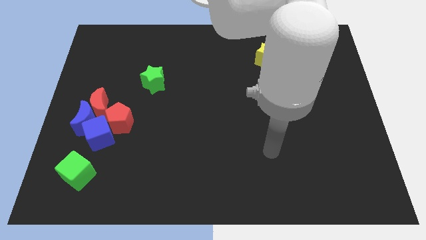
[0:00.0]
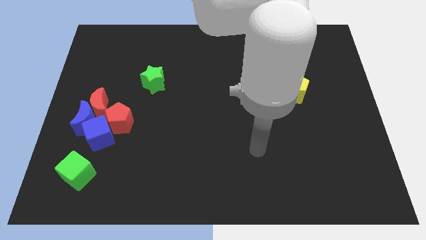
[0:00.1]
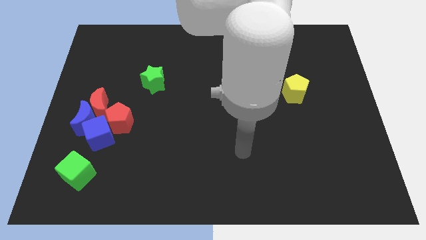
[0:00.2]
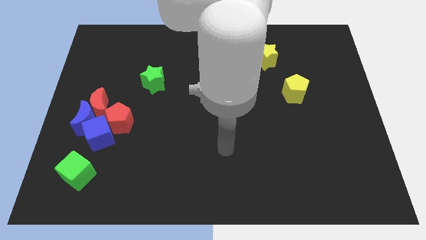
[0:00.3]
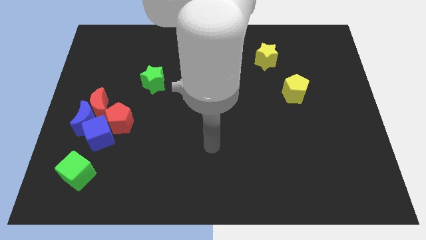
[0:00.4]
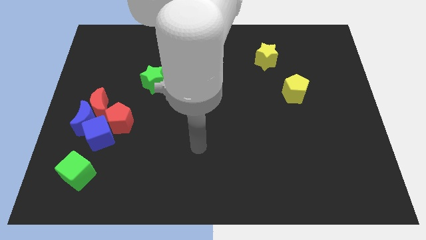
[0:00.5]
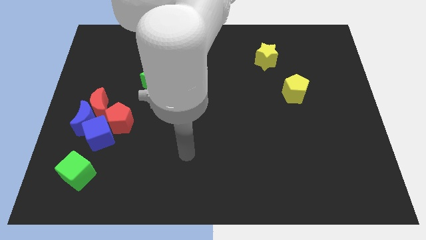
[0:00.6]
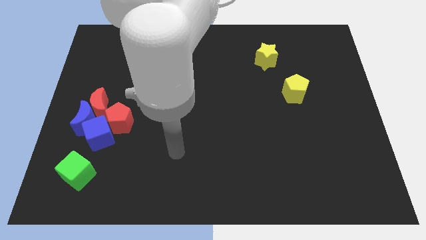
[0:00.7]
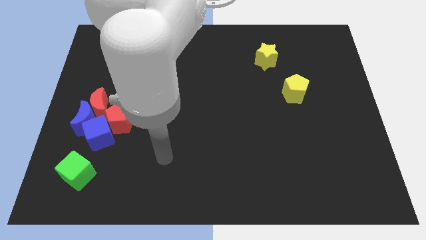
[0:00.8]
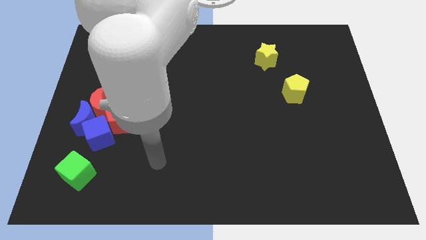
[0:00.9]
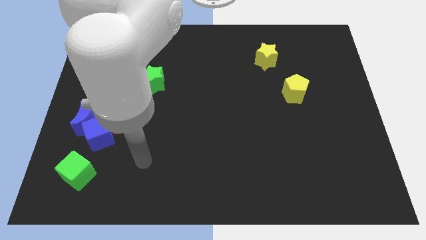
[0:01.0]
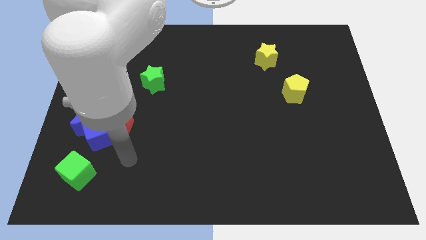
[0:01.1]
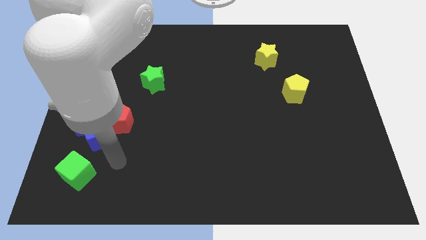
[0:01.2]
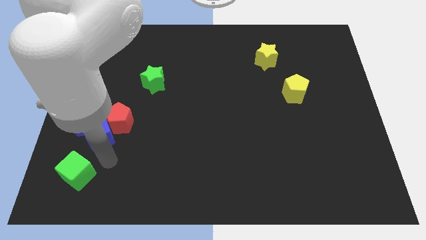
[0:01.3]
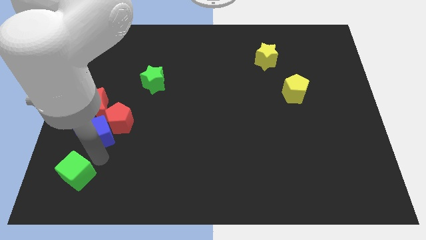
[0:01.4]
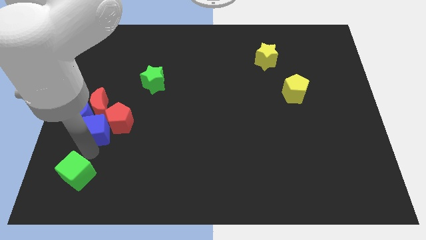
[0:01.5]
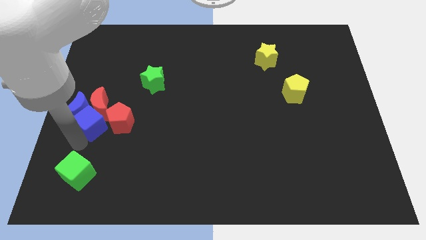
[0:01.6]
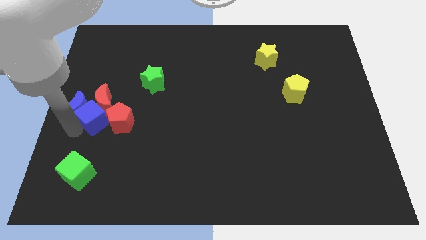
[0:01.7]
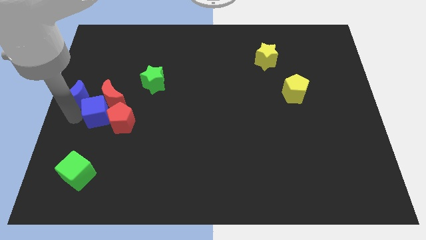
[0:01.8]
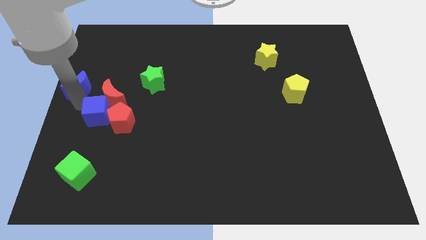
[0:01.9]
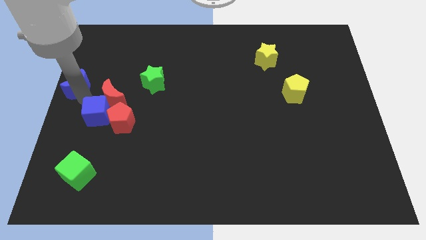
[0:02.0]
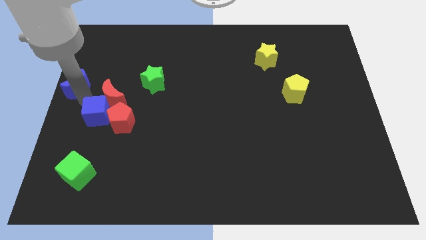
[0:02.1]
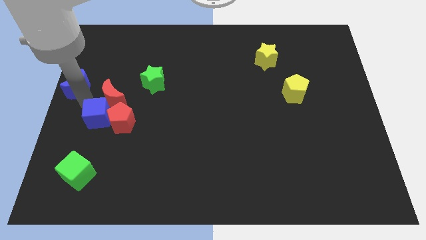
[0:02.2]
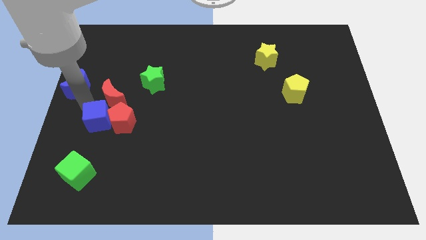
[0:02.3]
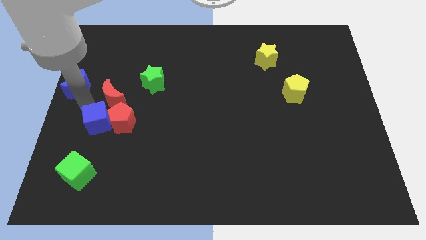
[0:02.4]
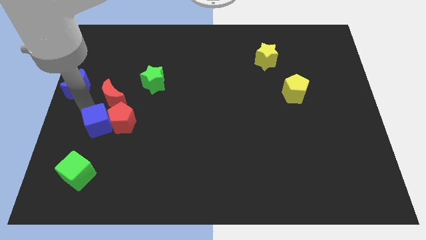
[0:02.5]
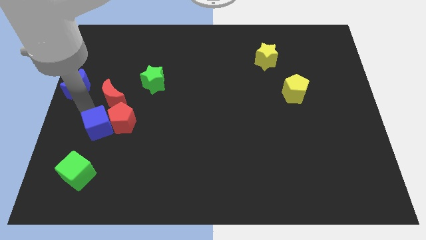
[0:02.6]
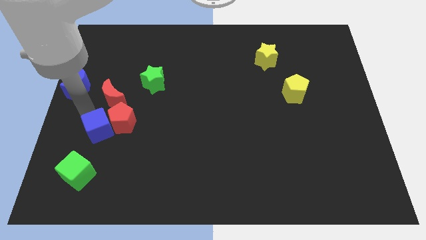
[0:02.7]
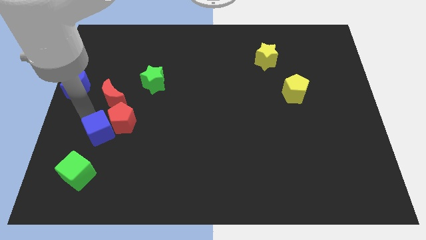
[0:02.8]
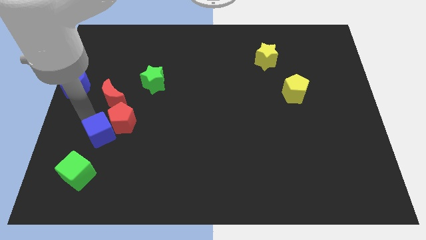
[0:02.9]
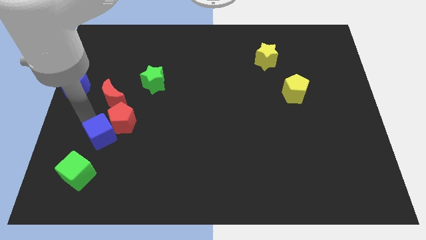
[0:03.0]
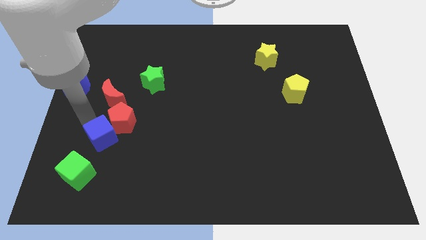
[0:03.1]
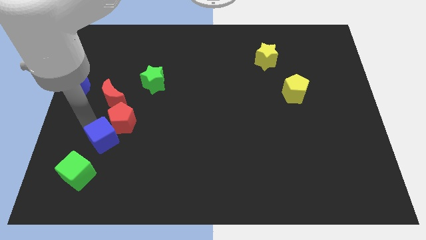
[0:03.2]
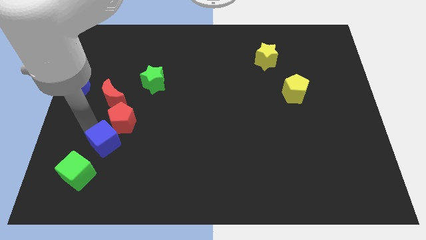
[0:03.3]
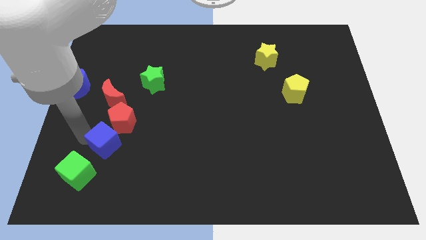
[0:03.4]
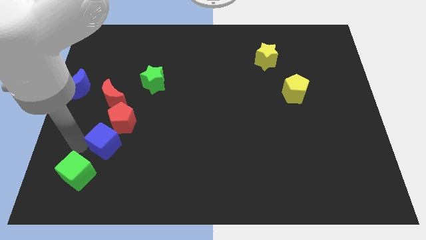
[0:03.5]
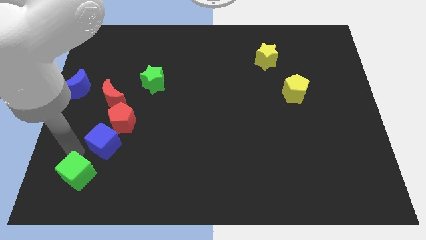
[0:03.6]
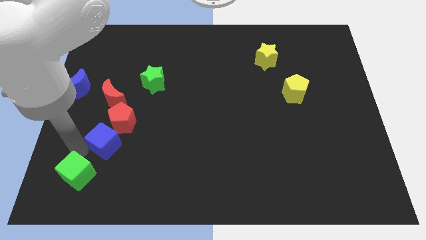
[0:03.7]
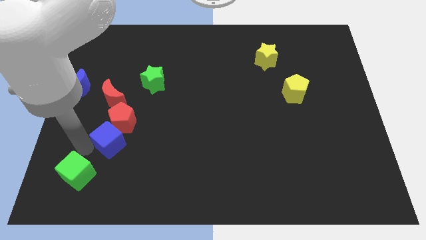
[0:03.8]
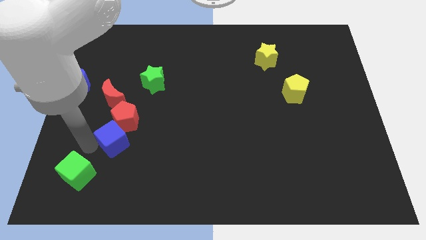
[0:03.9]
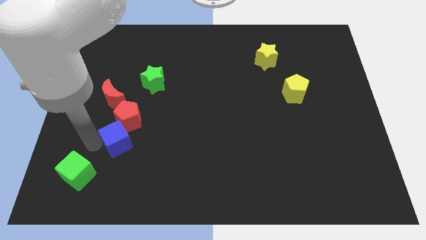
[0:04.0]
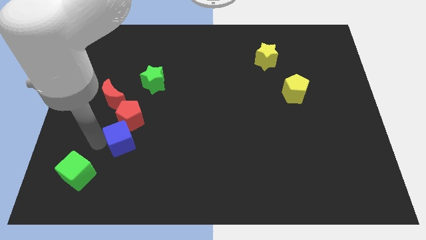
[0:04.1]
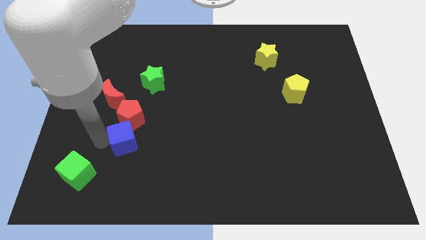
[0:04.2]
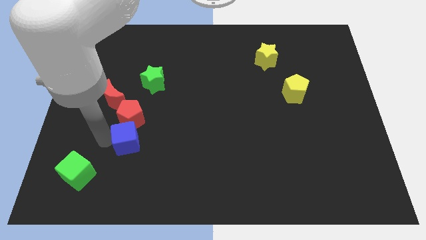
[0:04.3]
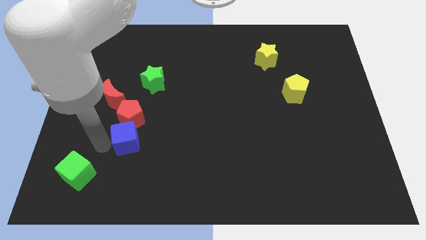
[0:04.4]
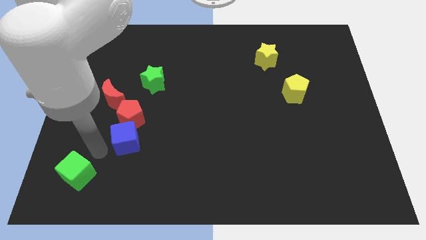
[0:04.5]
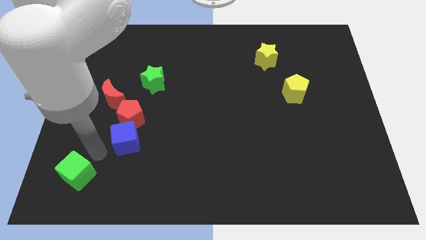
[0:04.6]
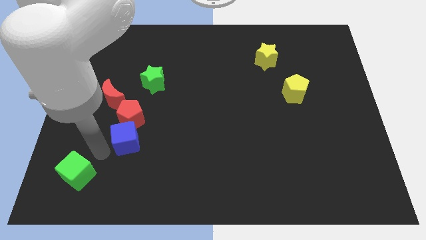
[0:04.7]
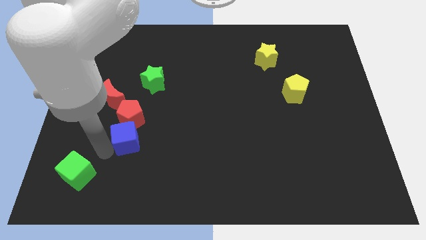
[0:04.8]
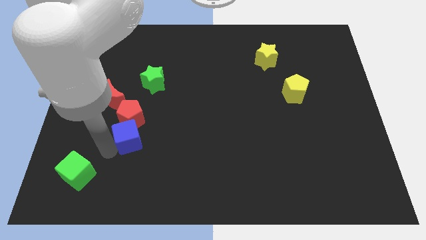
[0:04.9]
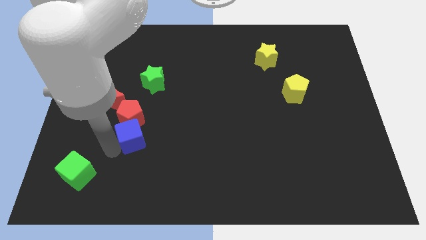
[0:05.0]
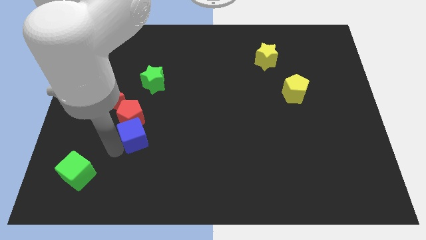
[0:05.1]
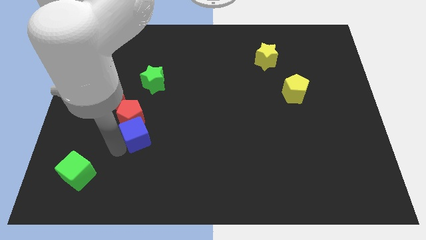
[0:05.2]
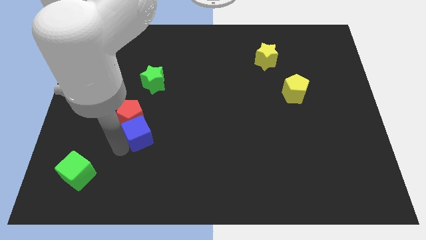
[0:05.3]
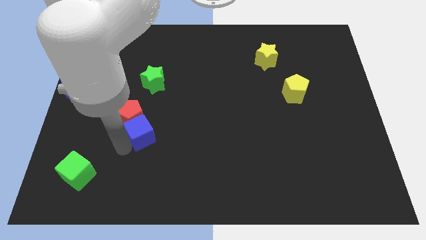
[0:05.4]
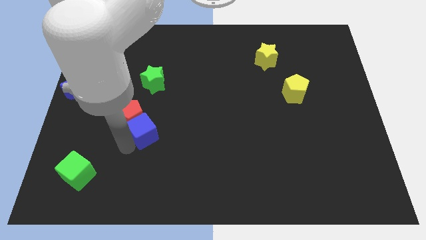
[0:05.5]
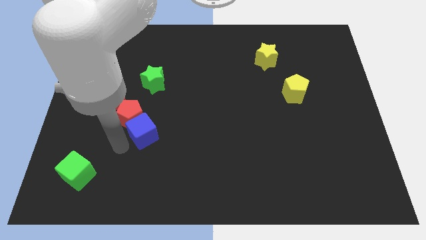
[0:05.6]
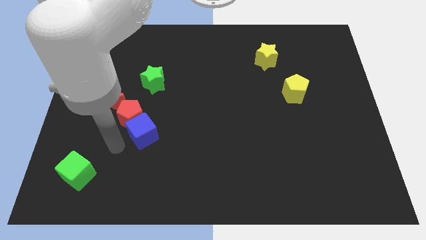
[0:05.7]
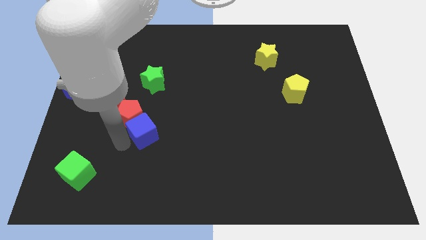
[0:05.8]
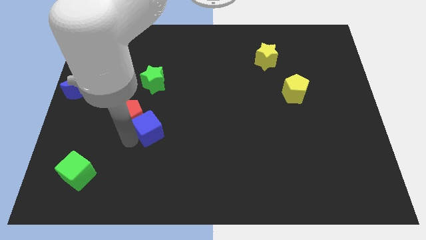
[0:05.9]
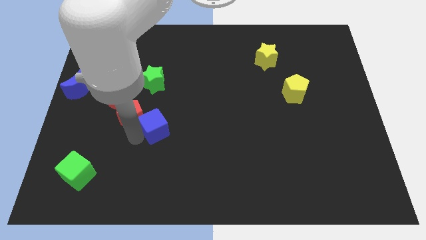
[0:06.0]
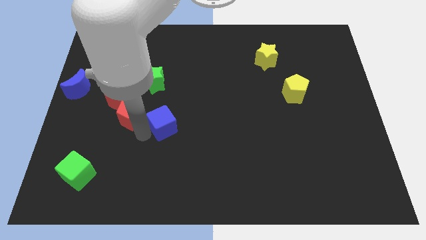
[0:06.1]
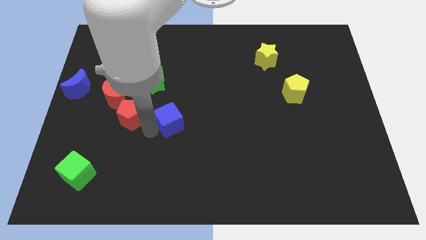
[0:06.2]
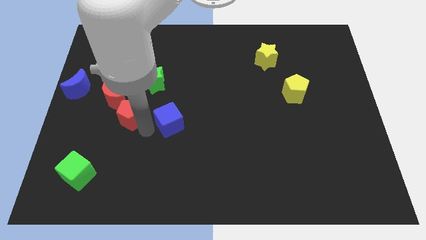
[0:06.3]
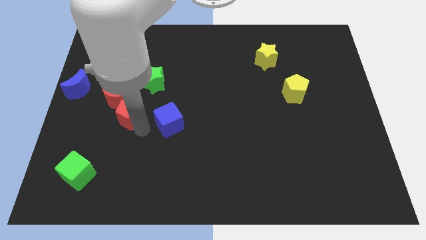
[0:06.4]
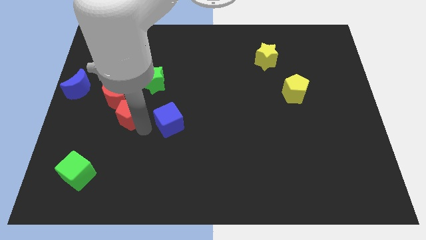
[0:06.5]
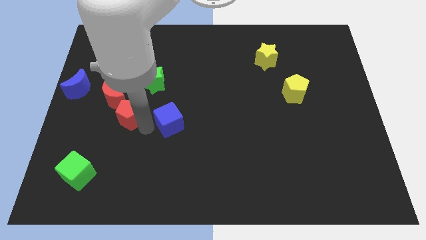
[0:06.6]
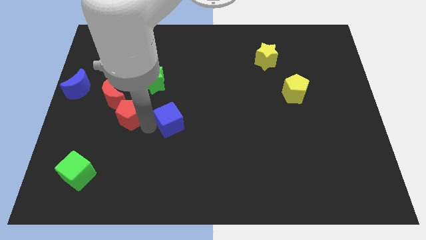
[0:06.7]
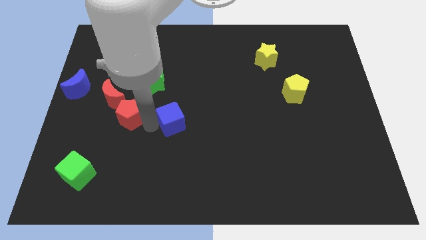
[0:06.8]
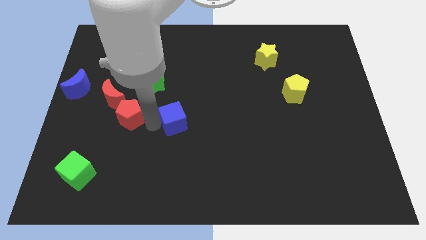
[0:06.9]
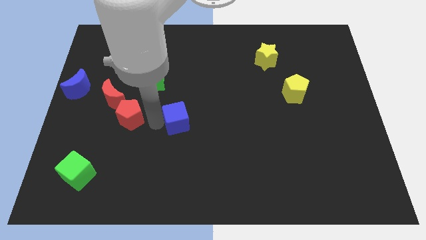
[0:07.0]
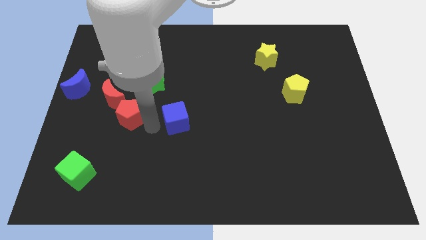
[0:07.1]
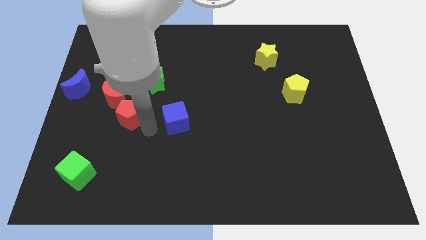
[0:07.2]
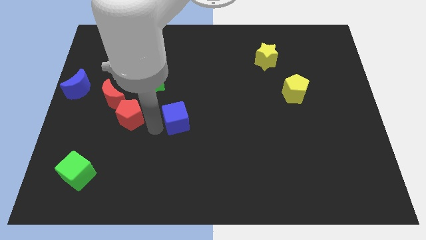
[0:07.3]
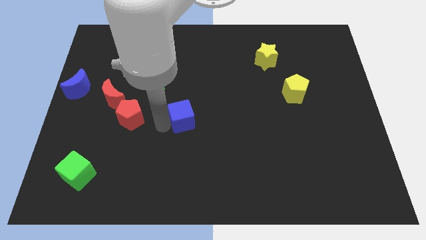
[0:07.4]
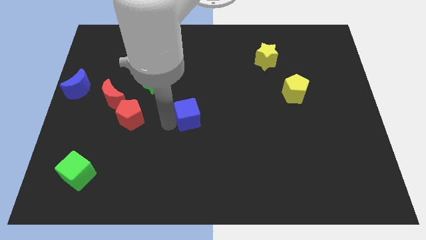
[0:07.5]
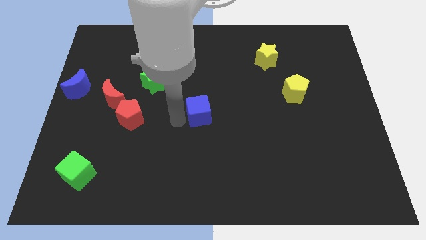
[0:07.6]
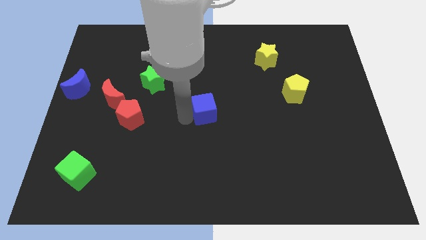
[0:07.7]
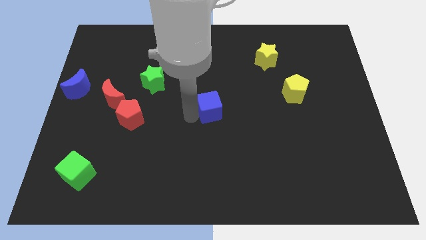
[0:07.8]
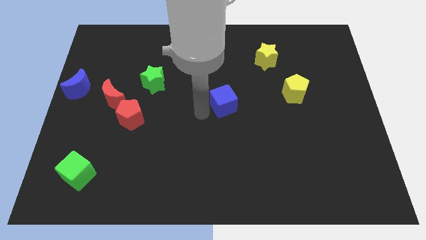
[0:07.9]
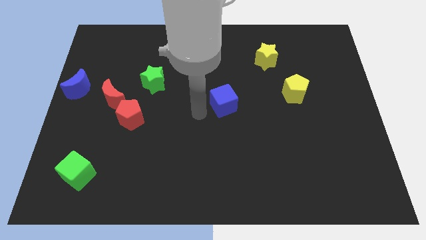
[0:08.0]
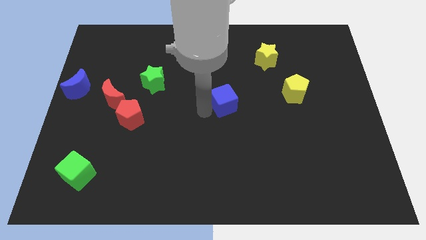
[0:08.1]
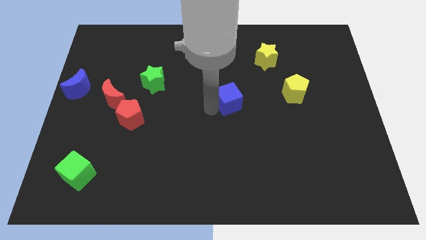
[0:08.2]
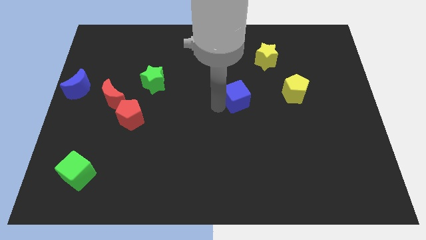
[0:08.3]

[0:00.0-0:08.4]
move the blue cube left of the yellow pentagon
